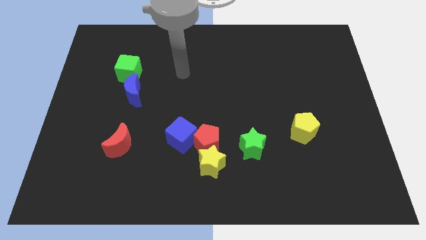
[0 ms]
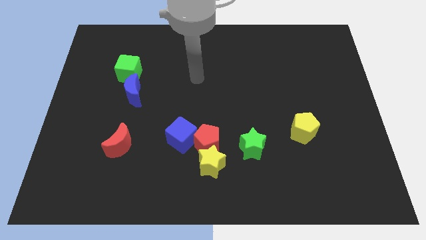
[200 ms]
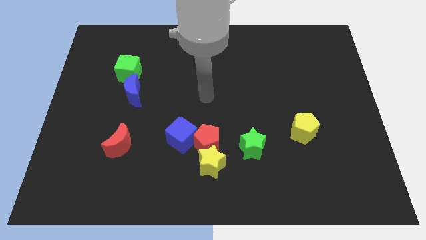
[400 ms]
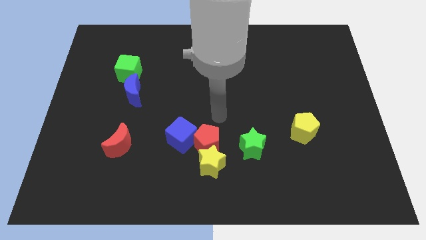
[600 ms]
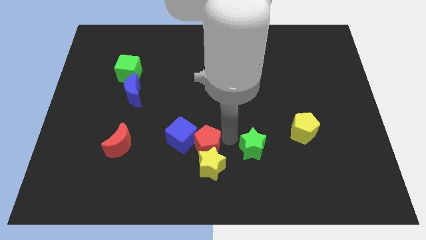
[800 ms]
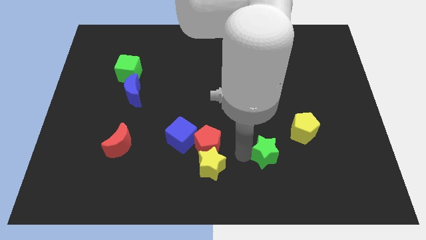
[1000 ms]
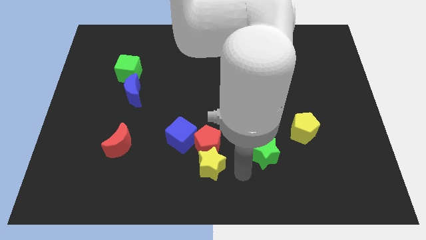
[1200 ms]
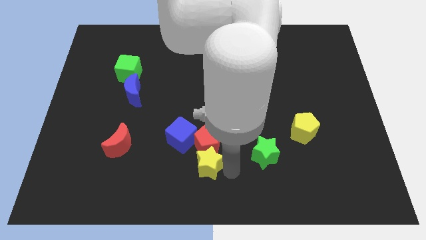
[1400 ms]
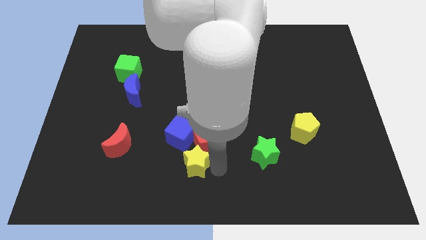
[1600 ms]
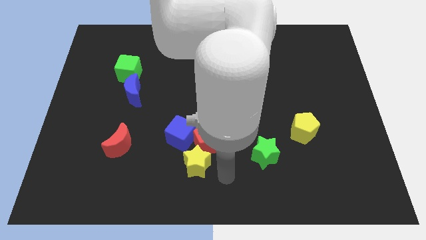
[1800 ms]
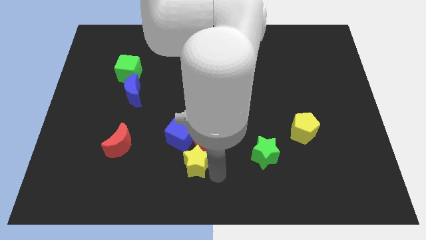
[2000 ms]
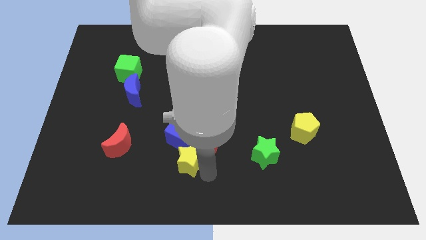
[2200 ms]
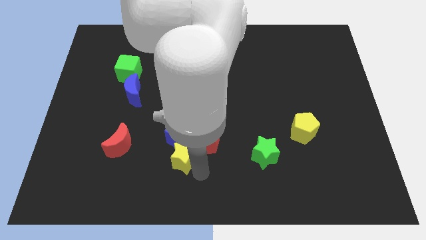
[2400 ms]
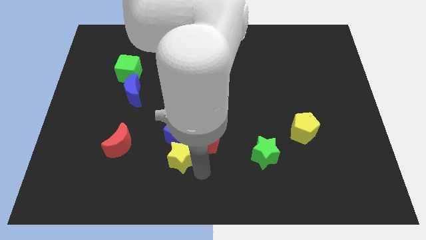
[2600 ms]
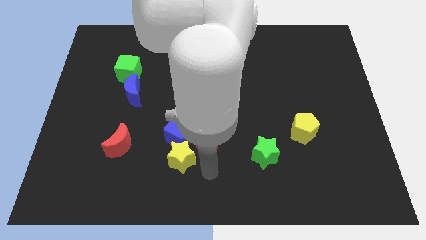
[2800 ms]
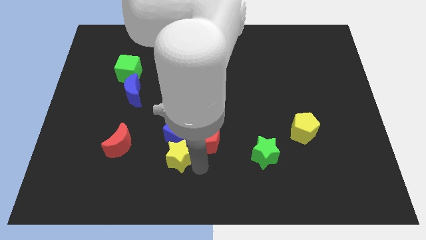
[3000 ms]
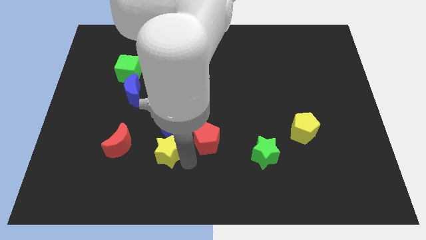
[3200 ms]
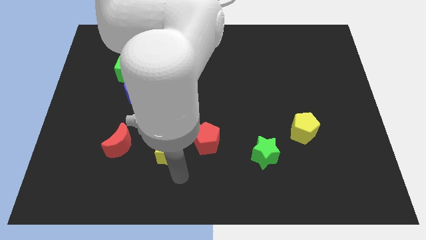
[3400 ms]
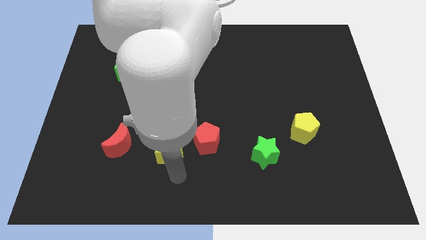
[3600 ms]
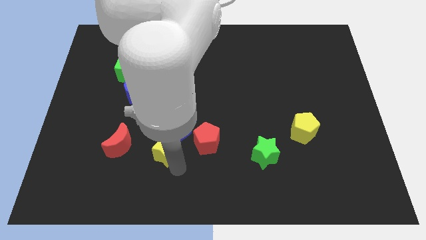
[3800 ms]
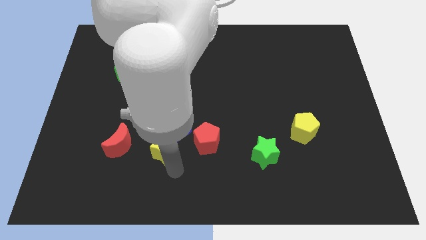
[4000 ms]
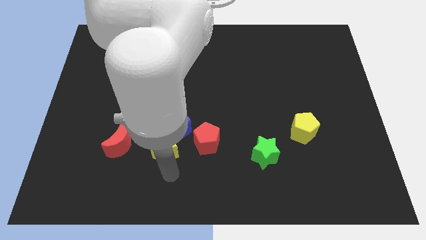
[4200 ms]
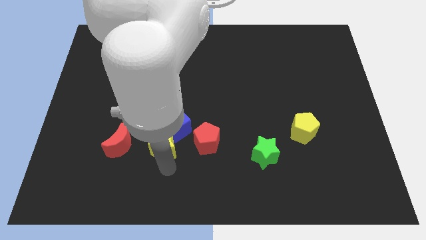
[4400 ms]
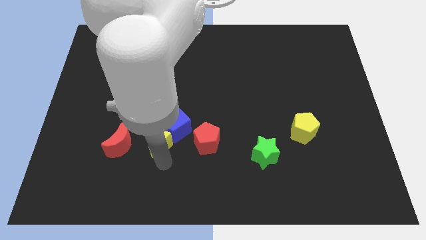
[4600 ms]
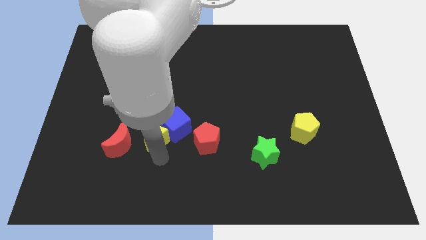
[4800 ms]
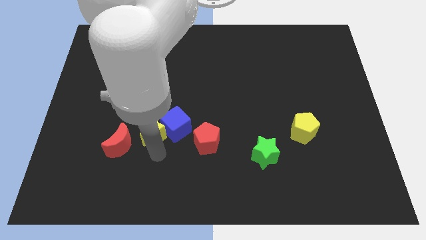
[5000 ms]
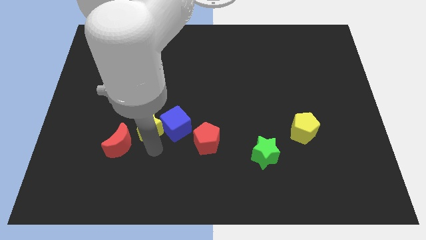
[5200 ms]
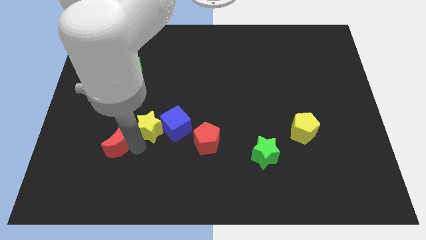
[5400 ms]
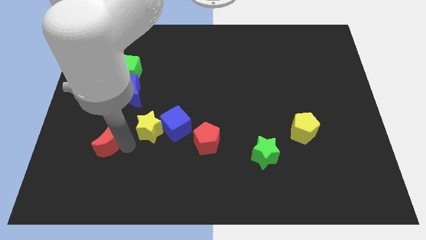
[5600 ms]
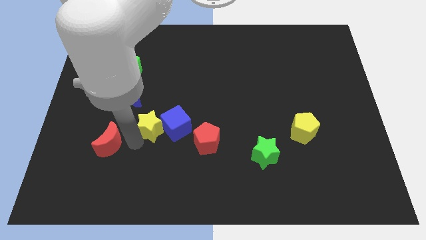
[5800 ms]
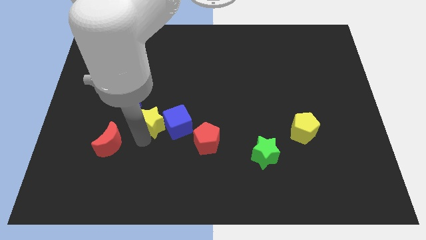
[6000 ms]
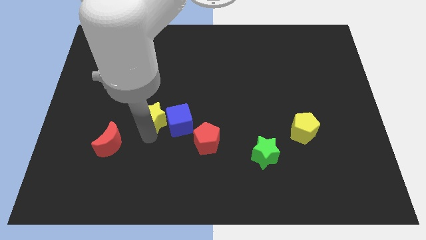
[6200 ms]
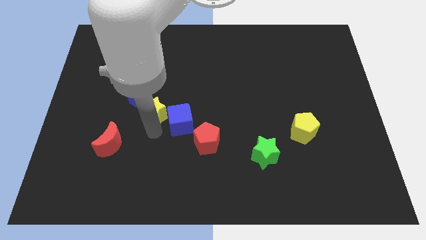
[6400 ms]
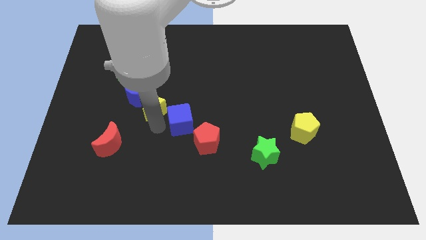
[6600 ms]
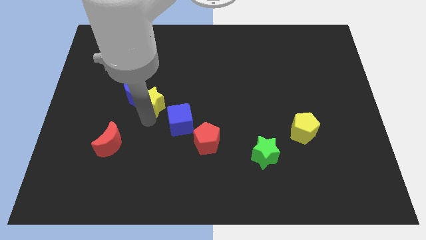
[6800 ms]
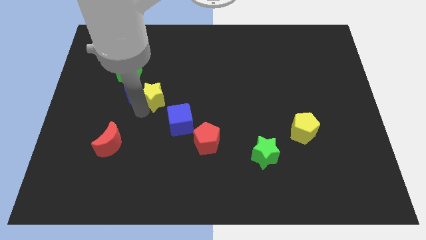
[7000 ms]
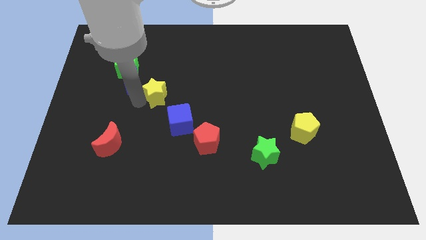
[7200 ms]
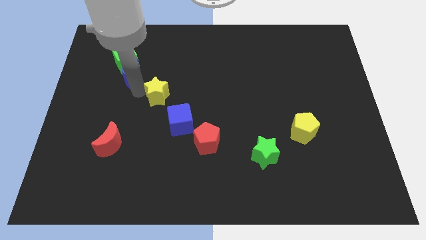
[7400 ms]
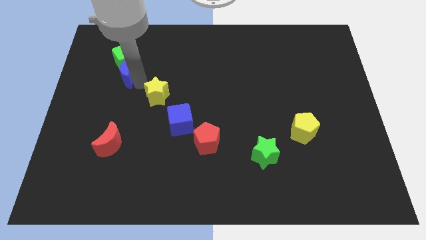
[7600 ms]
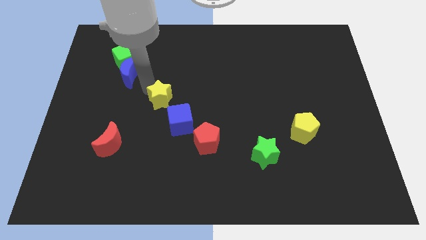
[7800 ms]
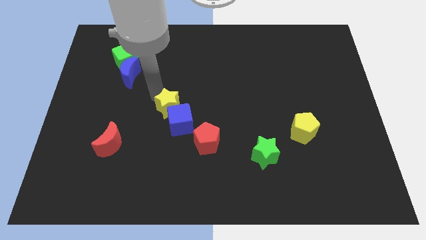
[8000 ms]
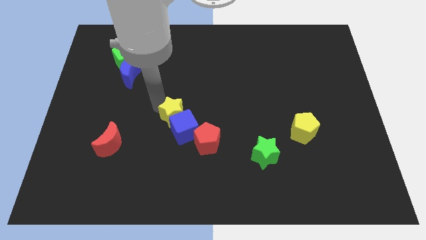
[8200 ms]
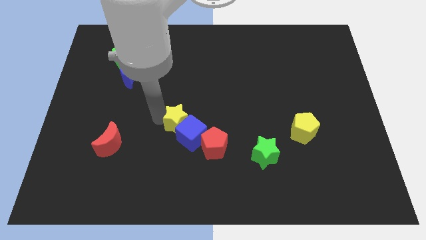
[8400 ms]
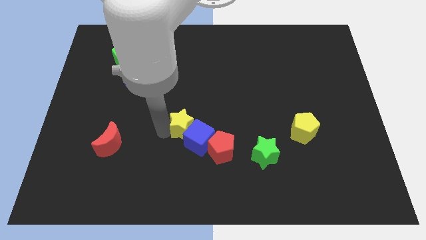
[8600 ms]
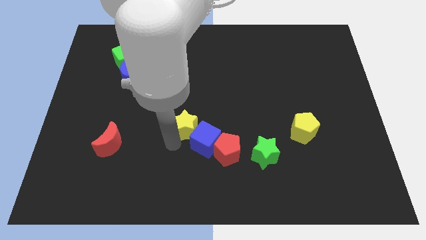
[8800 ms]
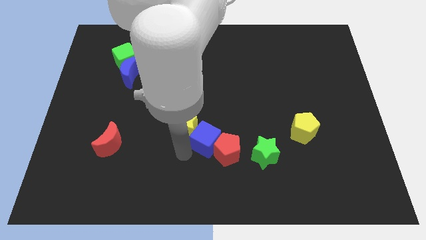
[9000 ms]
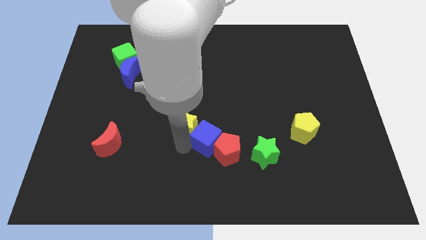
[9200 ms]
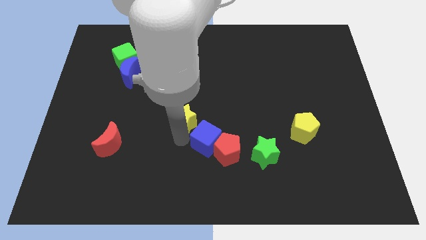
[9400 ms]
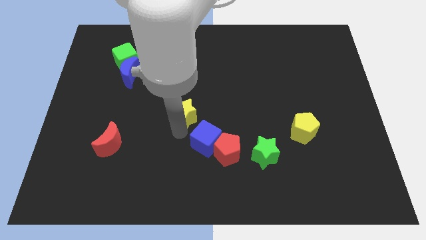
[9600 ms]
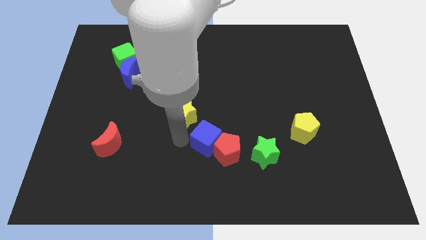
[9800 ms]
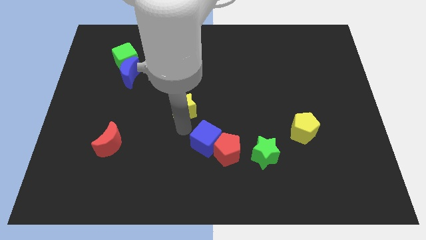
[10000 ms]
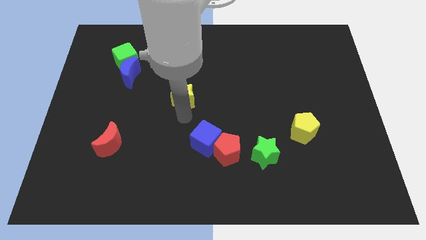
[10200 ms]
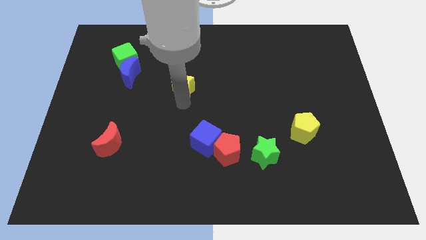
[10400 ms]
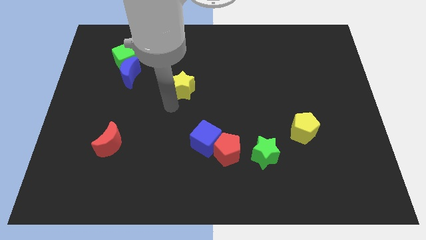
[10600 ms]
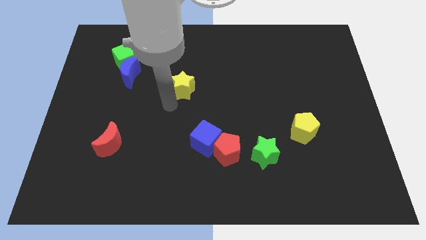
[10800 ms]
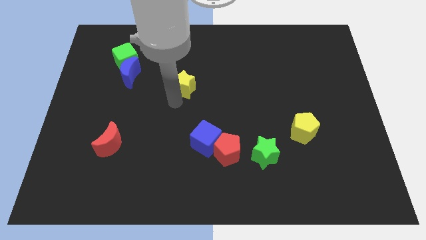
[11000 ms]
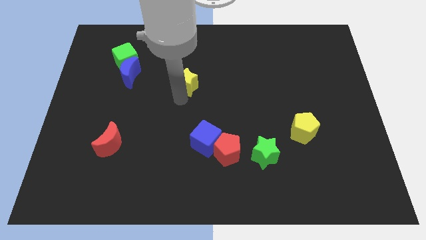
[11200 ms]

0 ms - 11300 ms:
slide the yellow star upwards

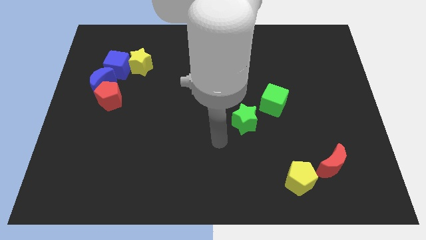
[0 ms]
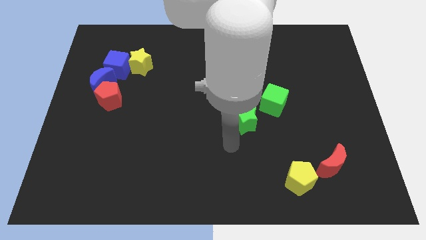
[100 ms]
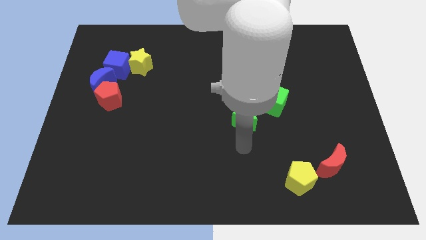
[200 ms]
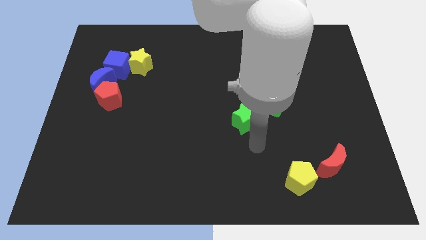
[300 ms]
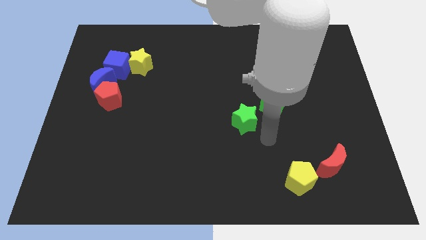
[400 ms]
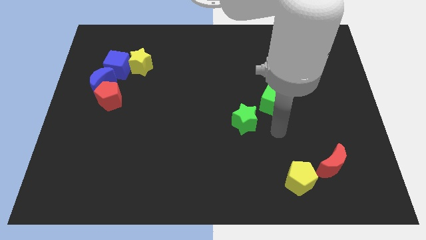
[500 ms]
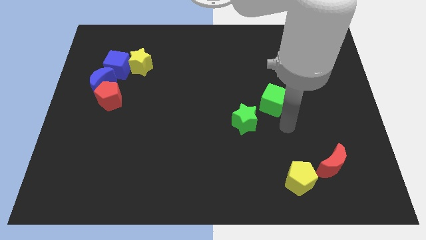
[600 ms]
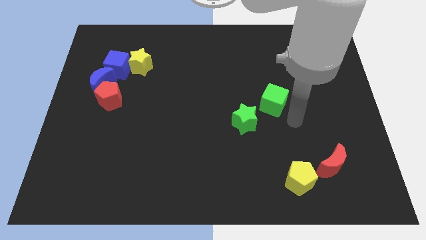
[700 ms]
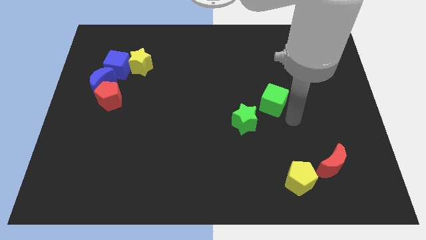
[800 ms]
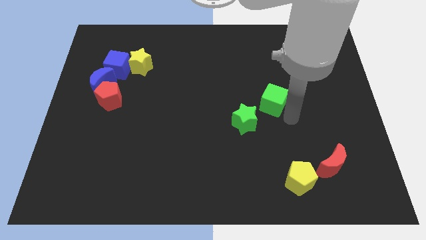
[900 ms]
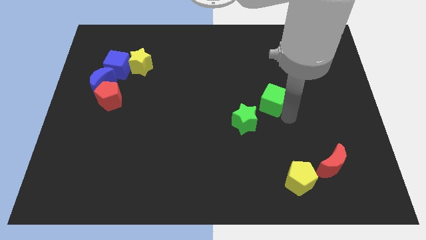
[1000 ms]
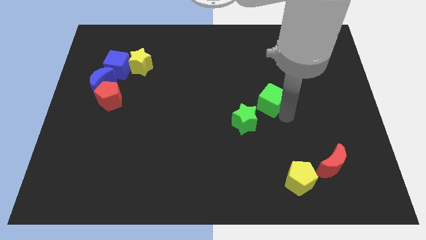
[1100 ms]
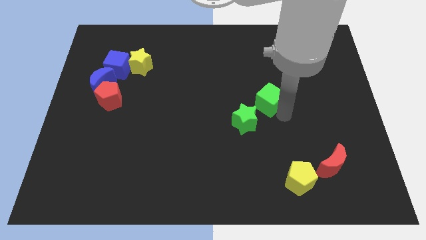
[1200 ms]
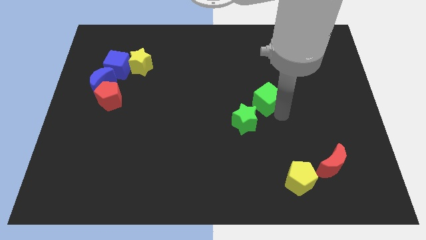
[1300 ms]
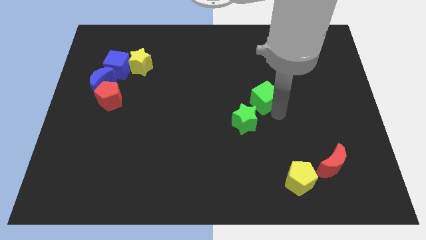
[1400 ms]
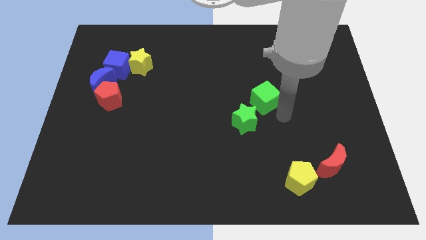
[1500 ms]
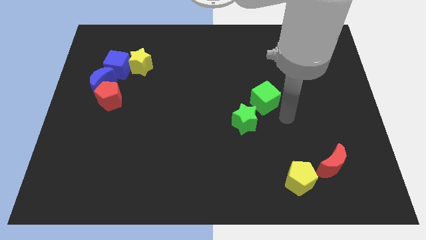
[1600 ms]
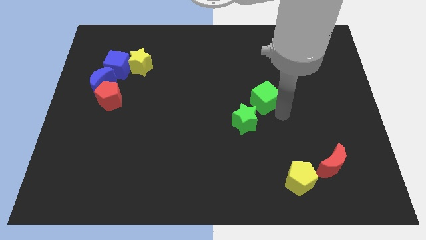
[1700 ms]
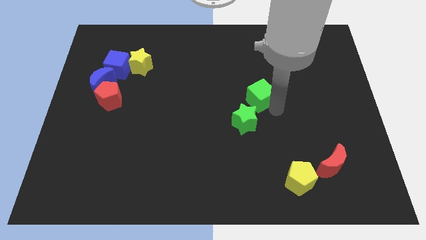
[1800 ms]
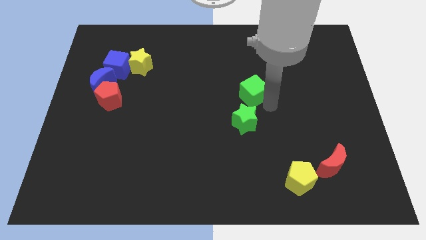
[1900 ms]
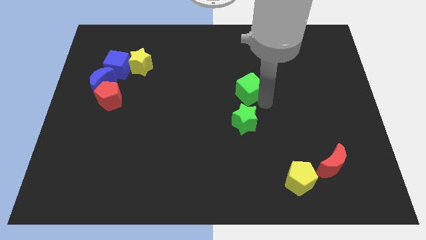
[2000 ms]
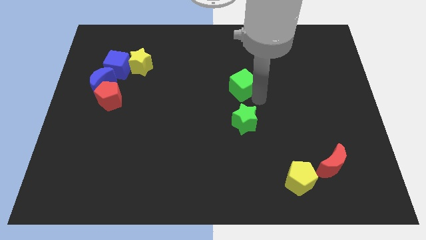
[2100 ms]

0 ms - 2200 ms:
slightly move the green cube upwards and then to the left

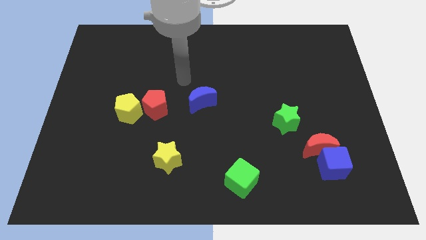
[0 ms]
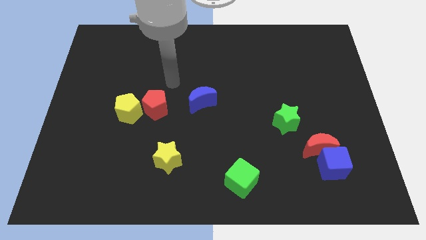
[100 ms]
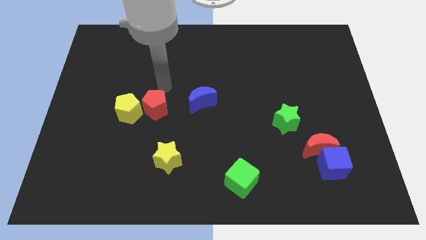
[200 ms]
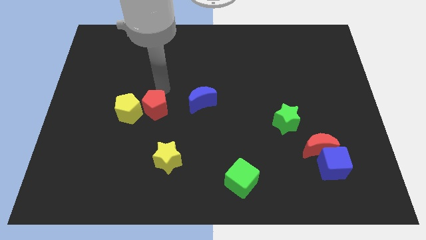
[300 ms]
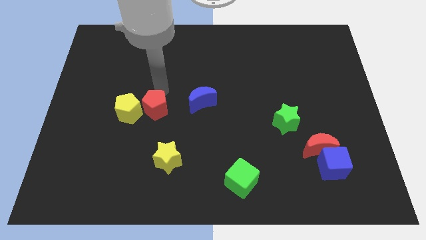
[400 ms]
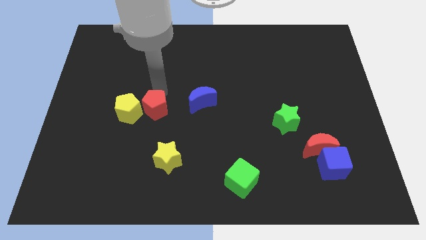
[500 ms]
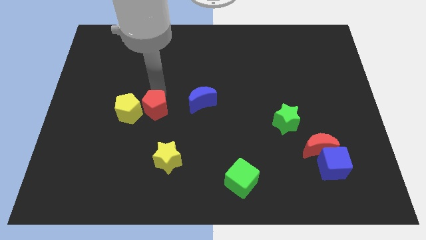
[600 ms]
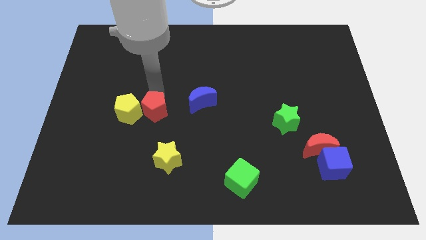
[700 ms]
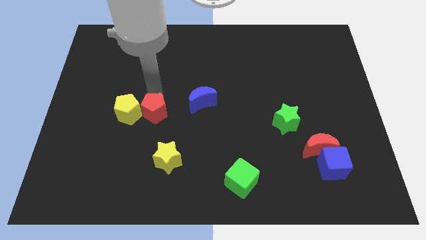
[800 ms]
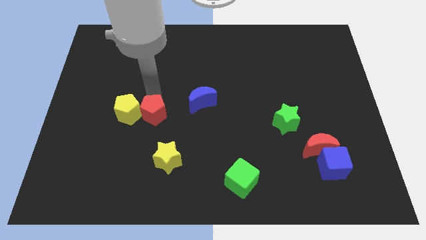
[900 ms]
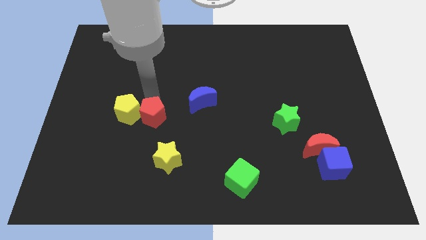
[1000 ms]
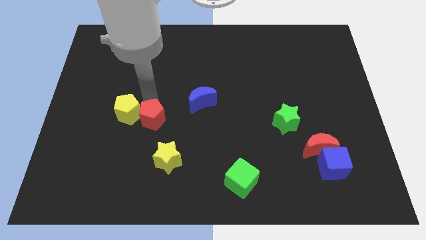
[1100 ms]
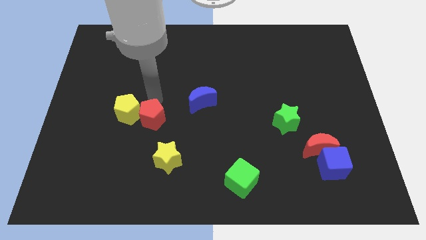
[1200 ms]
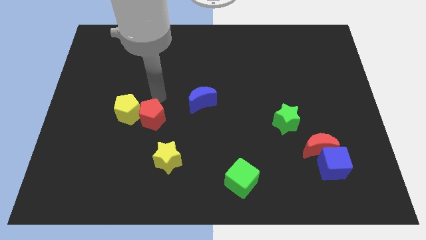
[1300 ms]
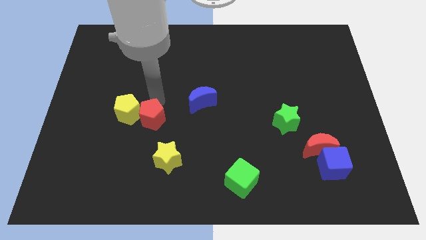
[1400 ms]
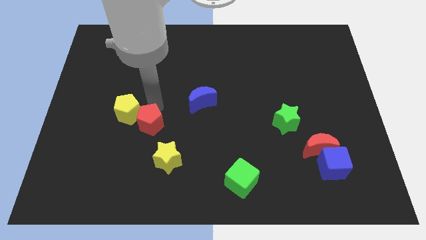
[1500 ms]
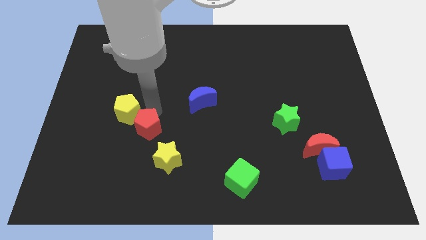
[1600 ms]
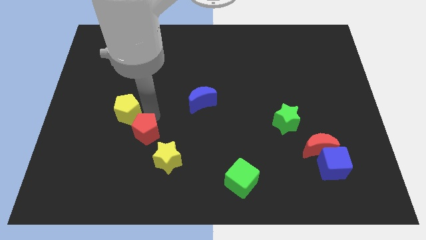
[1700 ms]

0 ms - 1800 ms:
slide the red pentagon downwards a little
